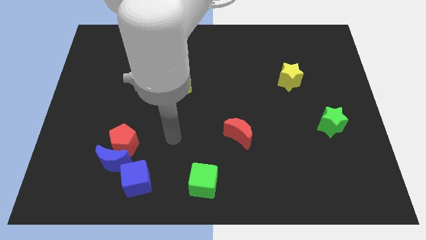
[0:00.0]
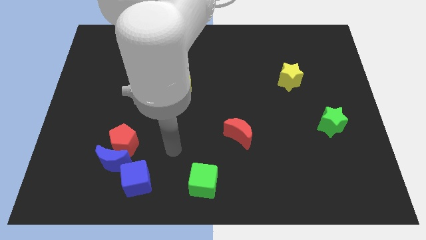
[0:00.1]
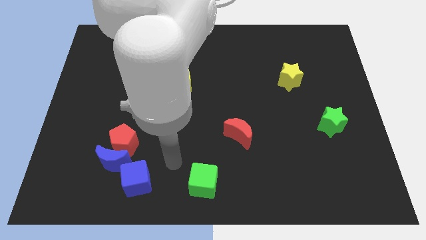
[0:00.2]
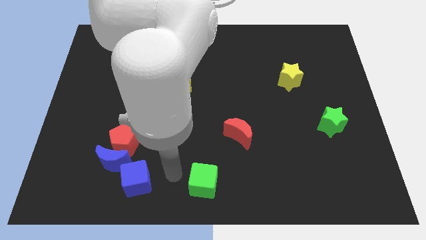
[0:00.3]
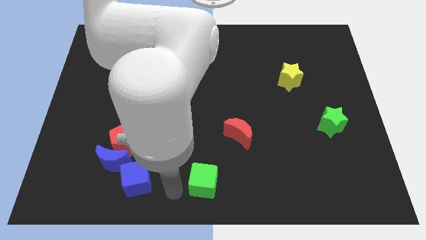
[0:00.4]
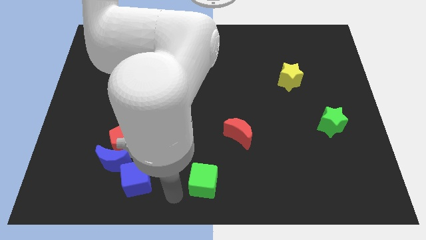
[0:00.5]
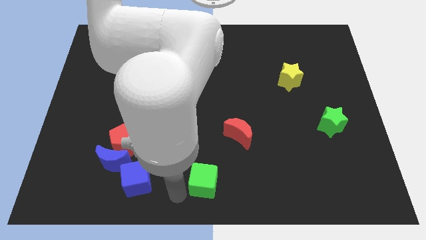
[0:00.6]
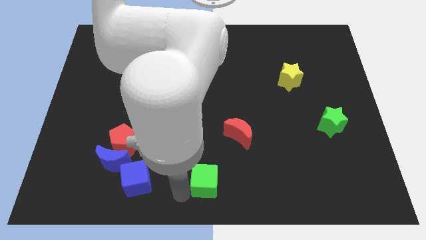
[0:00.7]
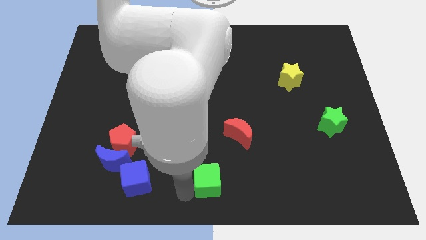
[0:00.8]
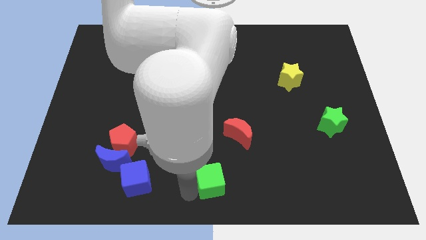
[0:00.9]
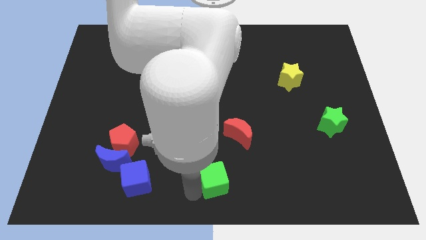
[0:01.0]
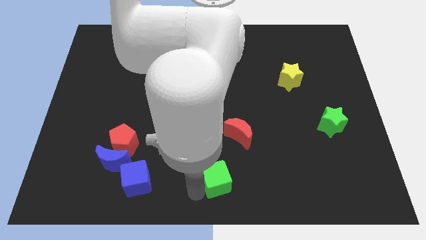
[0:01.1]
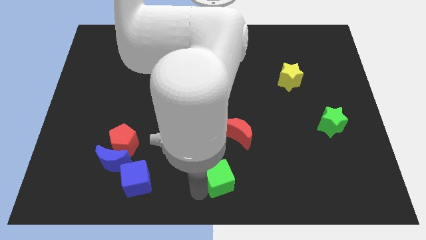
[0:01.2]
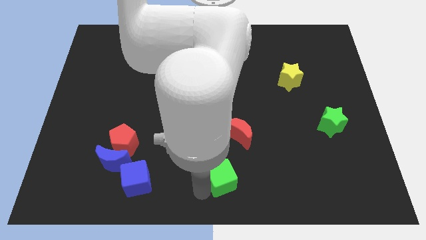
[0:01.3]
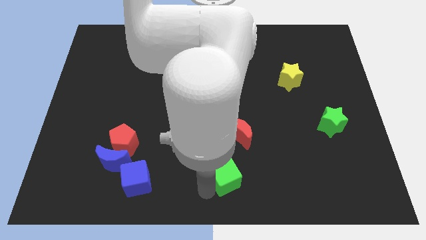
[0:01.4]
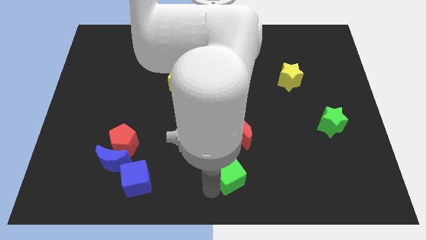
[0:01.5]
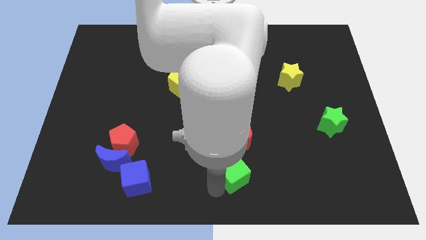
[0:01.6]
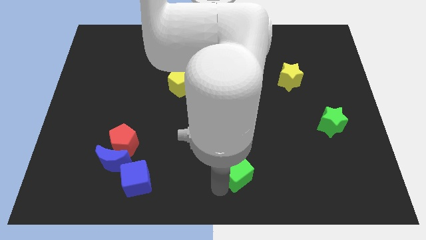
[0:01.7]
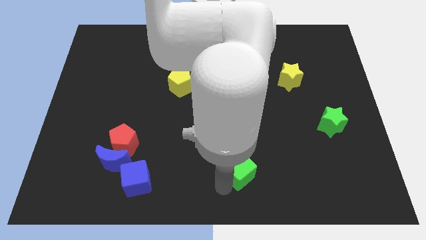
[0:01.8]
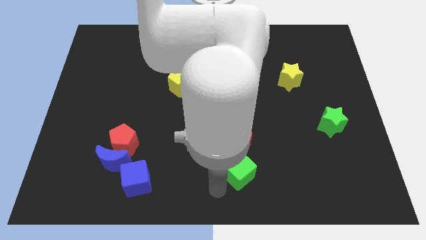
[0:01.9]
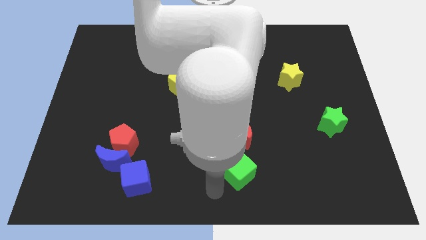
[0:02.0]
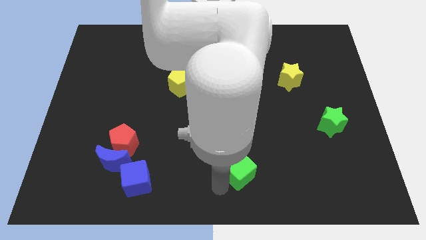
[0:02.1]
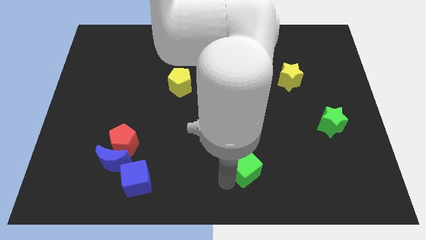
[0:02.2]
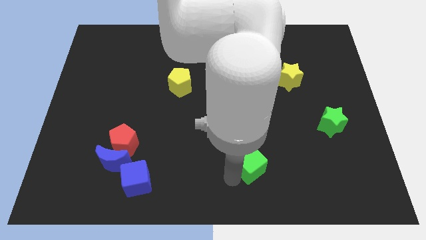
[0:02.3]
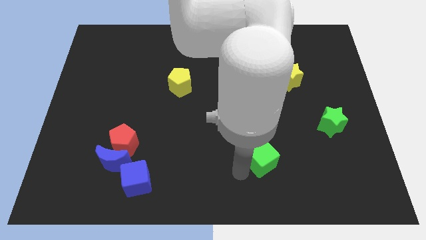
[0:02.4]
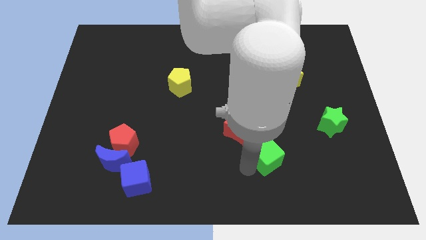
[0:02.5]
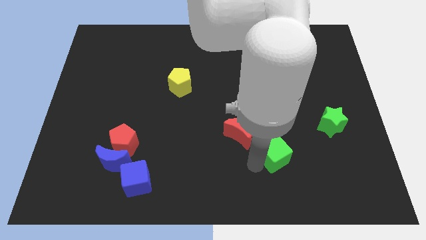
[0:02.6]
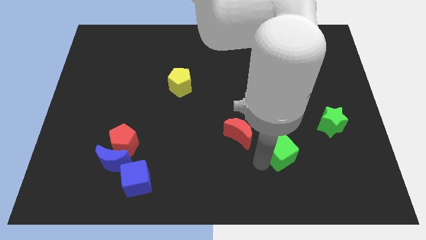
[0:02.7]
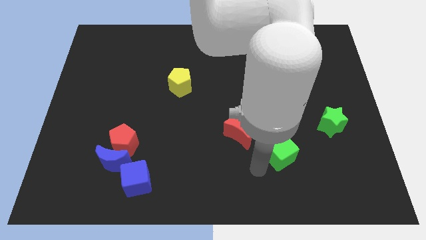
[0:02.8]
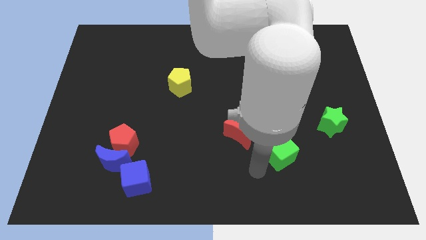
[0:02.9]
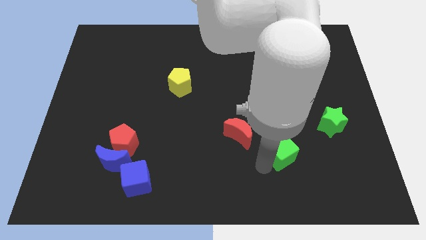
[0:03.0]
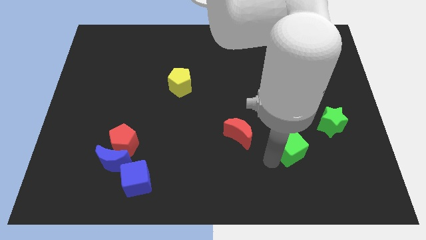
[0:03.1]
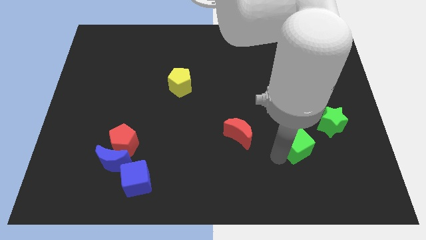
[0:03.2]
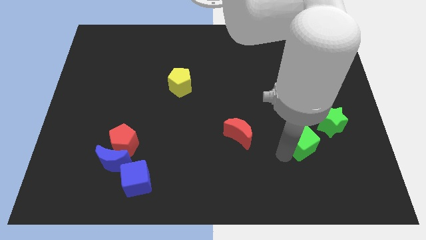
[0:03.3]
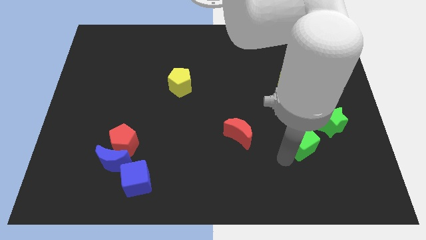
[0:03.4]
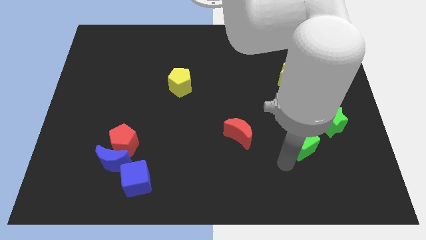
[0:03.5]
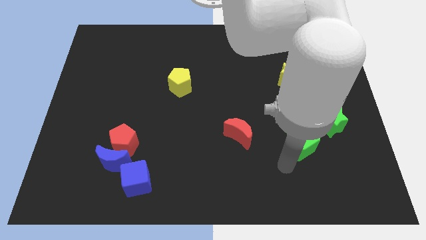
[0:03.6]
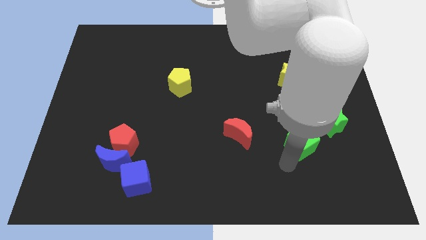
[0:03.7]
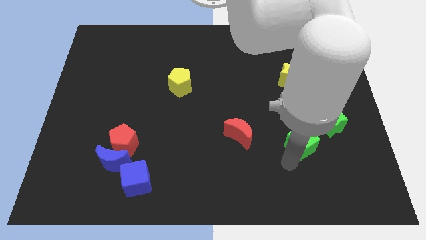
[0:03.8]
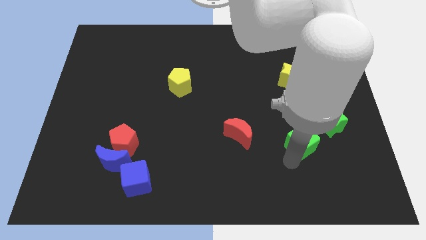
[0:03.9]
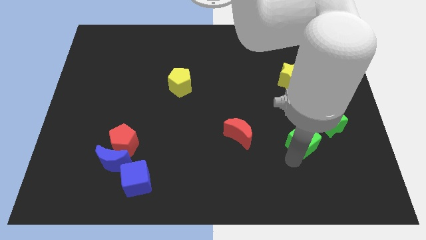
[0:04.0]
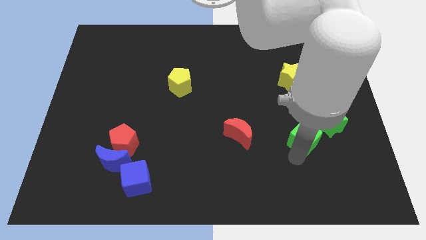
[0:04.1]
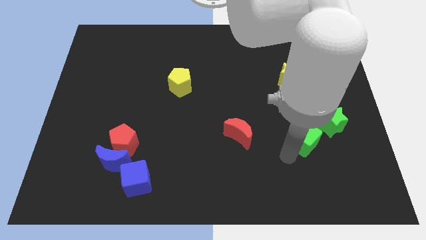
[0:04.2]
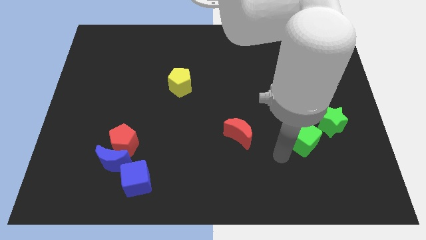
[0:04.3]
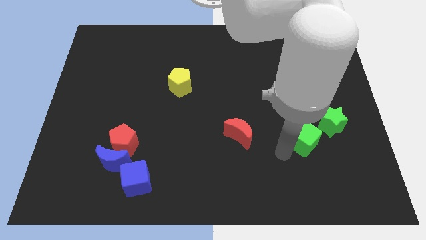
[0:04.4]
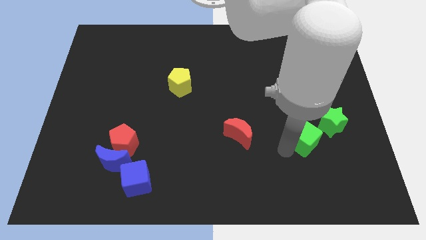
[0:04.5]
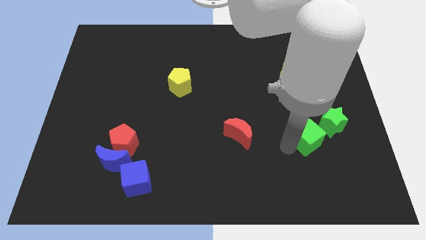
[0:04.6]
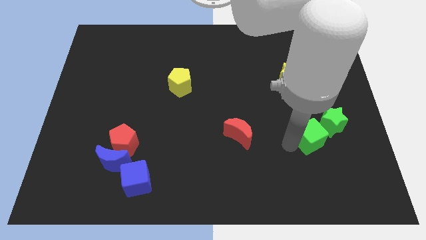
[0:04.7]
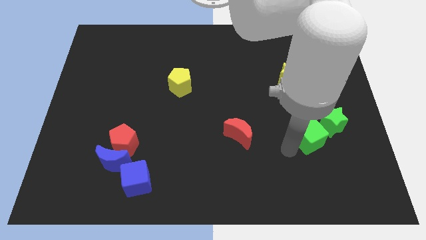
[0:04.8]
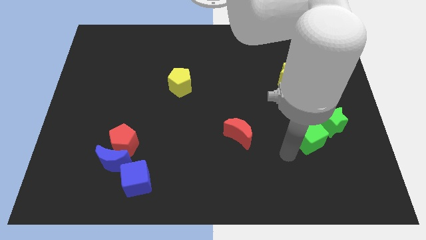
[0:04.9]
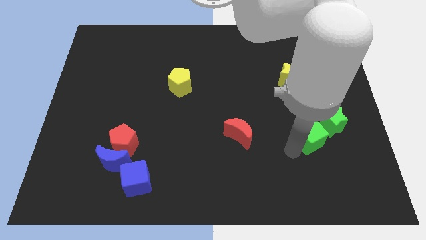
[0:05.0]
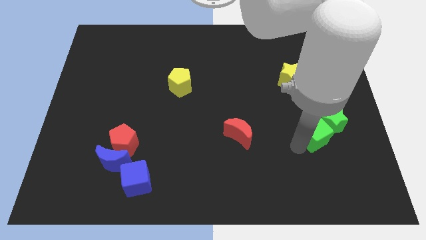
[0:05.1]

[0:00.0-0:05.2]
slide the green cube next to the green star

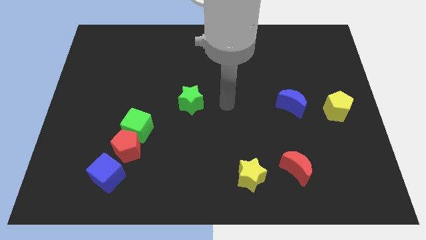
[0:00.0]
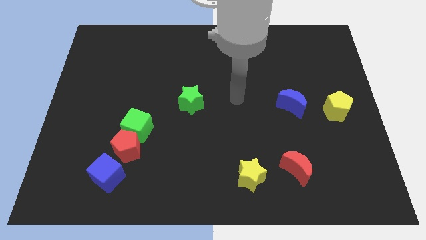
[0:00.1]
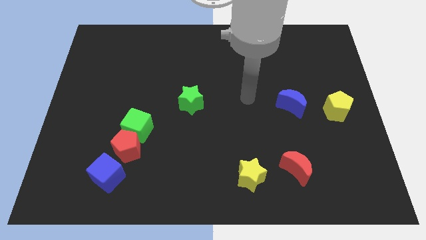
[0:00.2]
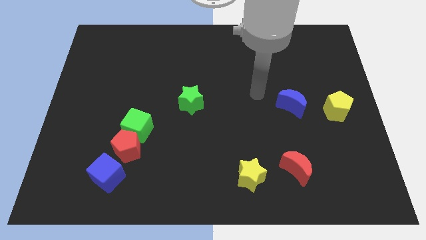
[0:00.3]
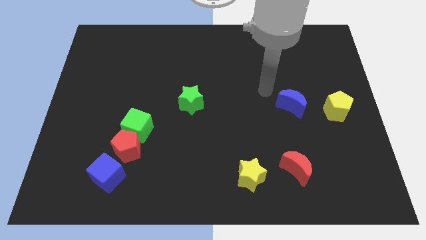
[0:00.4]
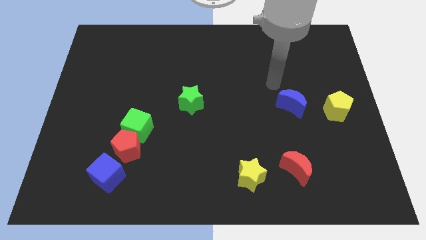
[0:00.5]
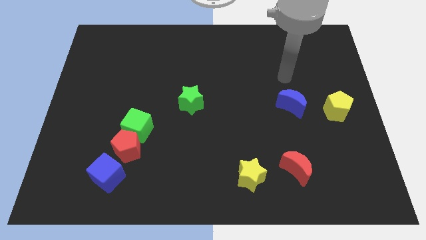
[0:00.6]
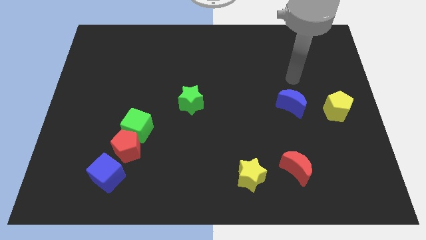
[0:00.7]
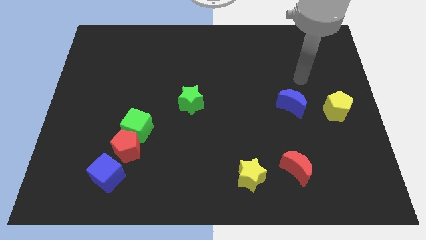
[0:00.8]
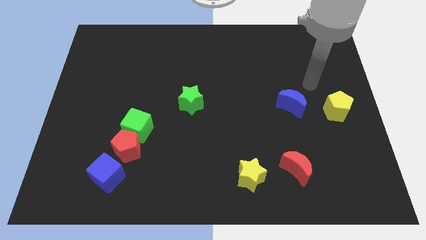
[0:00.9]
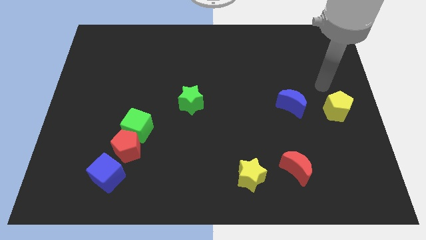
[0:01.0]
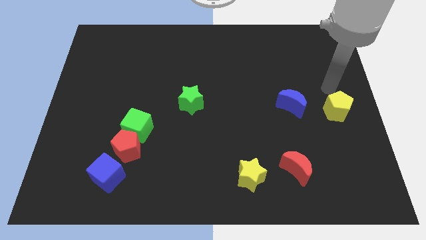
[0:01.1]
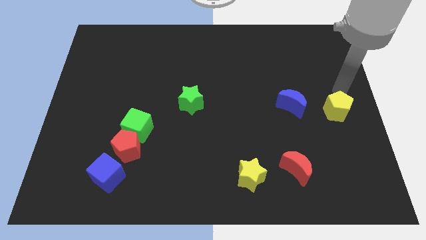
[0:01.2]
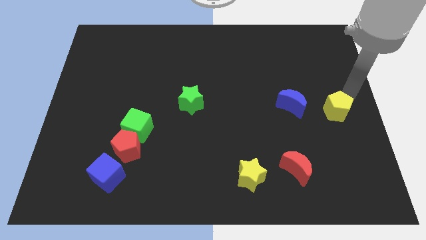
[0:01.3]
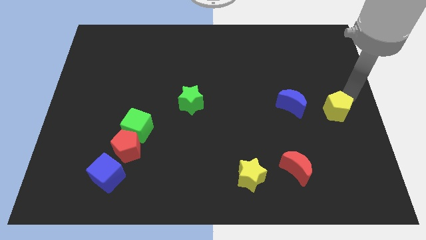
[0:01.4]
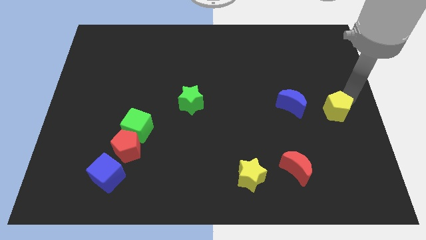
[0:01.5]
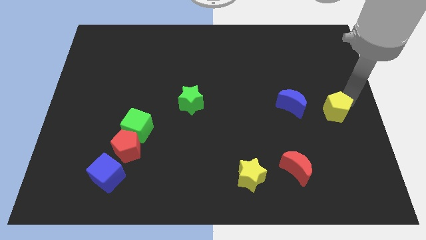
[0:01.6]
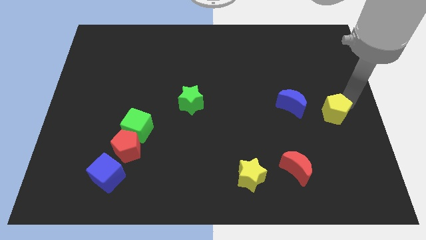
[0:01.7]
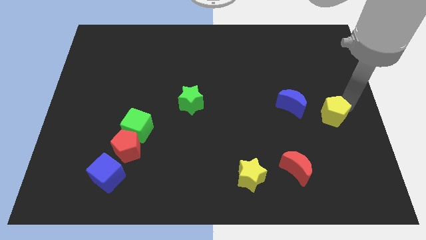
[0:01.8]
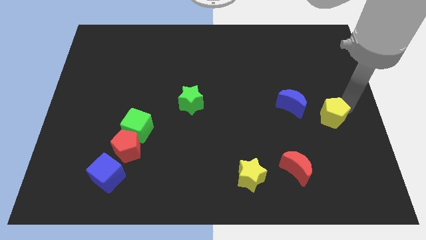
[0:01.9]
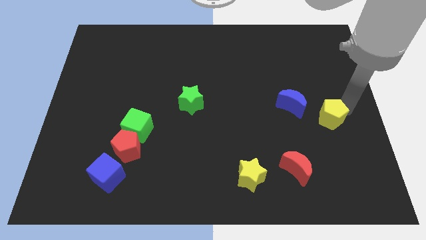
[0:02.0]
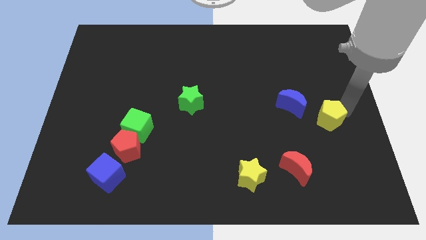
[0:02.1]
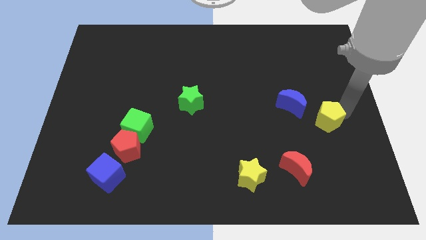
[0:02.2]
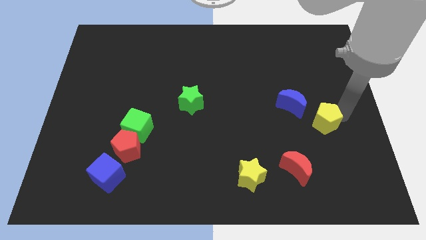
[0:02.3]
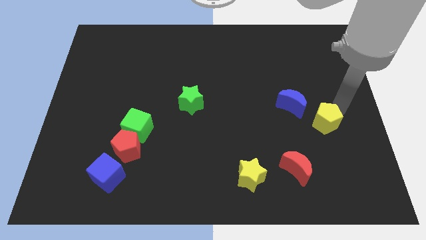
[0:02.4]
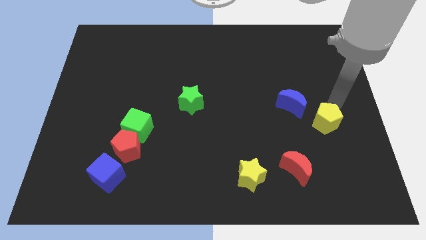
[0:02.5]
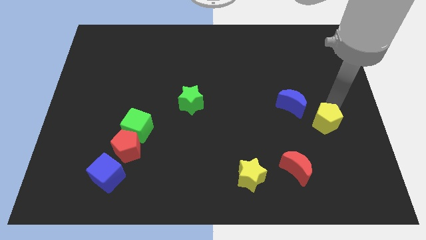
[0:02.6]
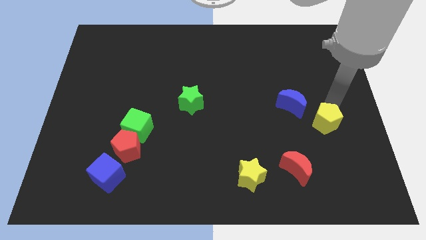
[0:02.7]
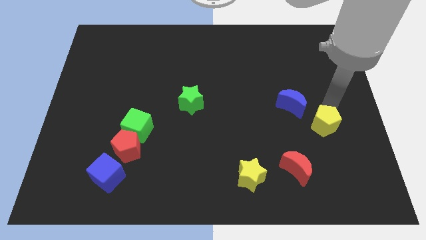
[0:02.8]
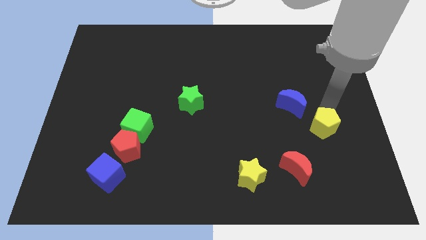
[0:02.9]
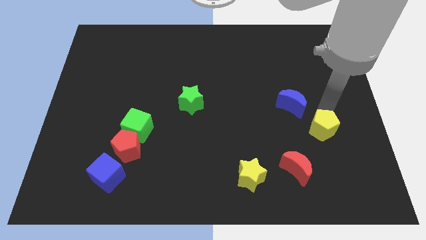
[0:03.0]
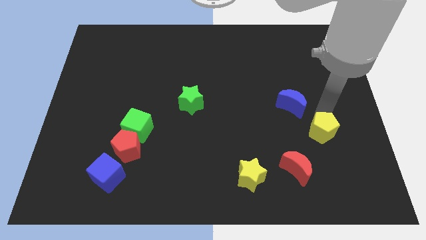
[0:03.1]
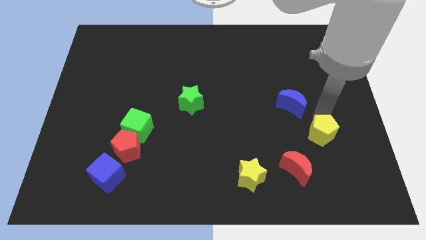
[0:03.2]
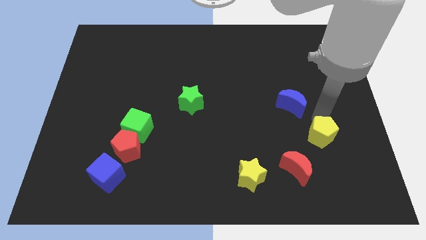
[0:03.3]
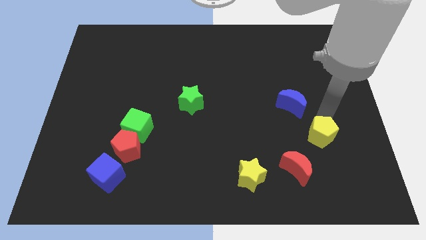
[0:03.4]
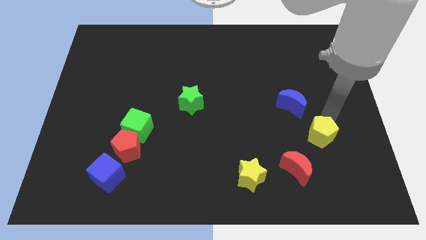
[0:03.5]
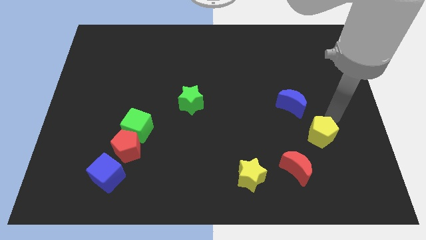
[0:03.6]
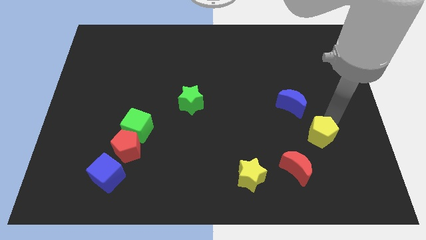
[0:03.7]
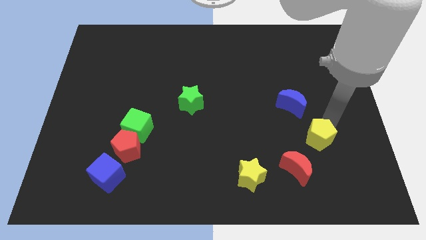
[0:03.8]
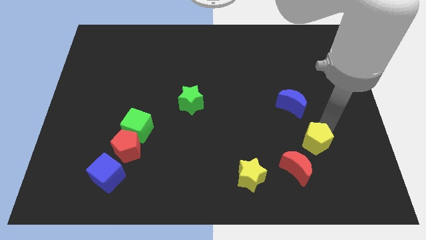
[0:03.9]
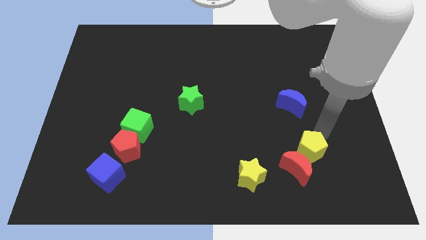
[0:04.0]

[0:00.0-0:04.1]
put the yellow pentagon close to the red moon
